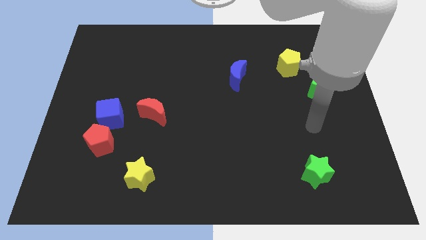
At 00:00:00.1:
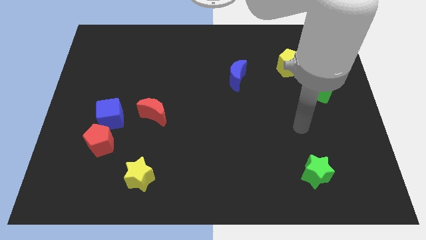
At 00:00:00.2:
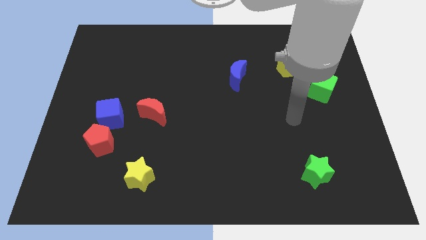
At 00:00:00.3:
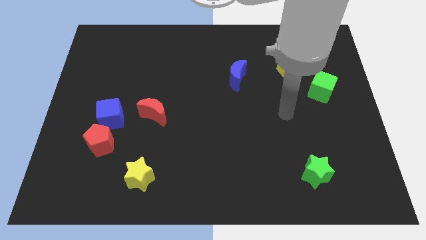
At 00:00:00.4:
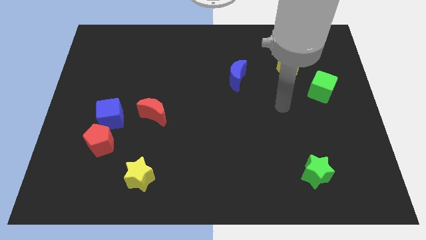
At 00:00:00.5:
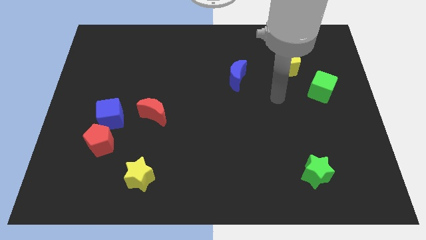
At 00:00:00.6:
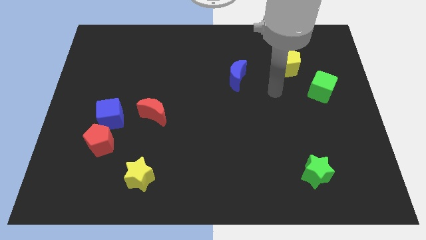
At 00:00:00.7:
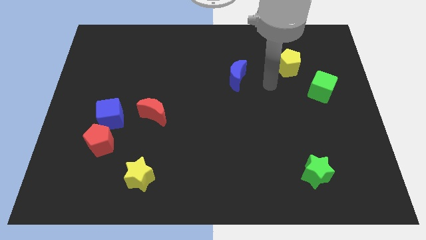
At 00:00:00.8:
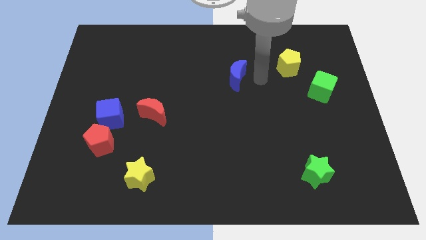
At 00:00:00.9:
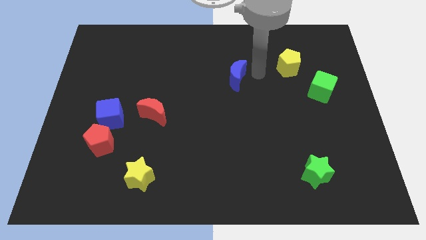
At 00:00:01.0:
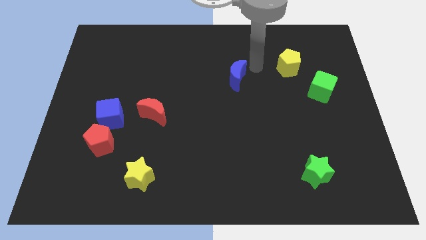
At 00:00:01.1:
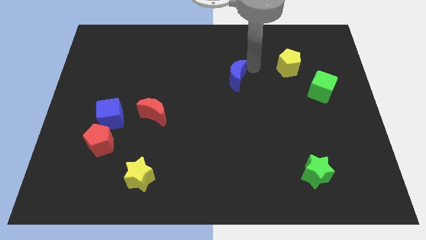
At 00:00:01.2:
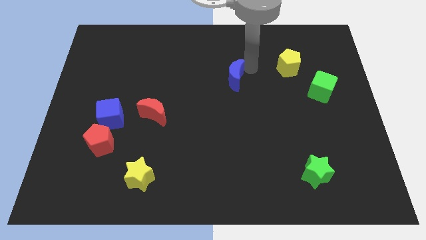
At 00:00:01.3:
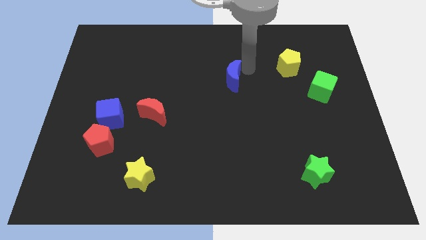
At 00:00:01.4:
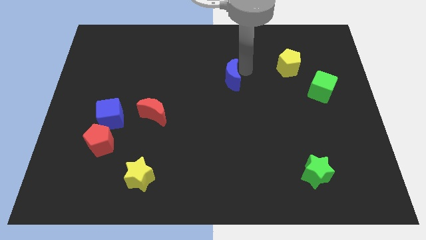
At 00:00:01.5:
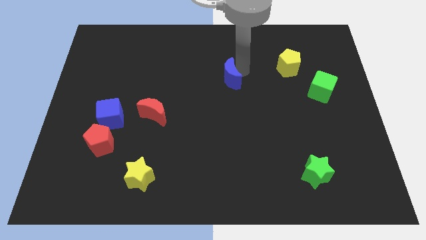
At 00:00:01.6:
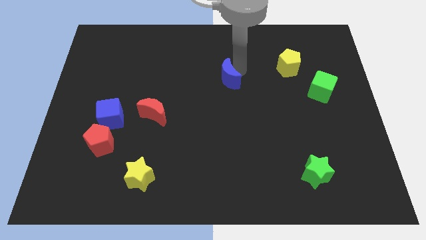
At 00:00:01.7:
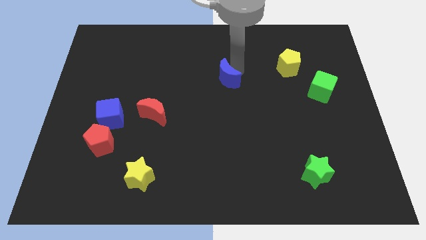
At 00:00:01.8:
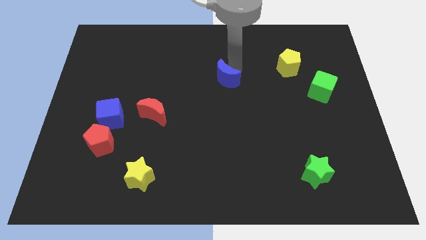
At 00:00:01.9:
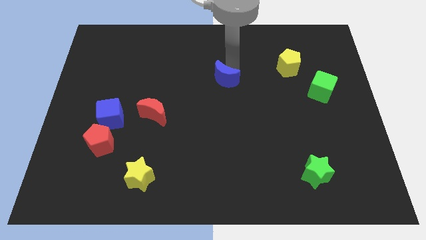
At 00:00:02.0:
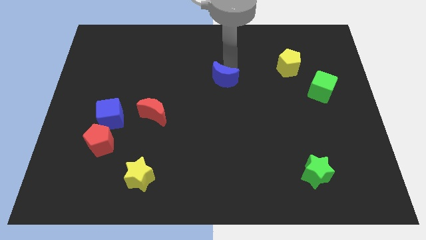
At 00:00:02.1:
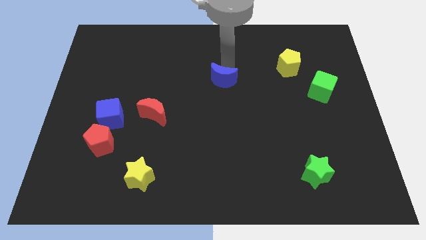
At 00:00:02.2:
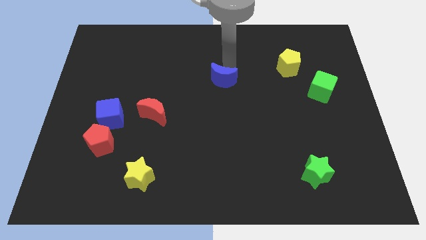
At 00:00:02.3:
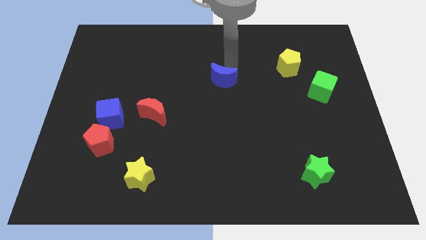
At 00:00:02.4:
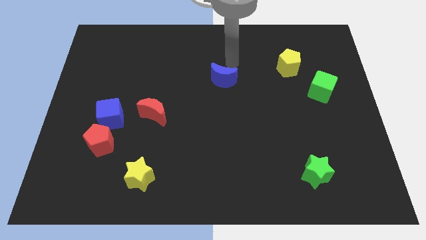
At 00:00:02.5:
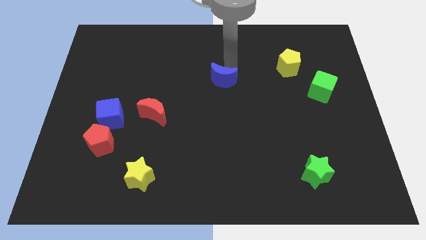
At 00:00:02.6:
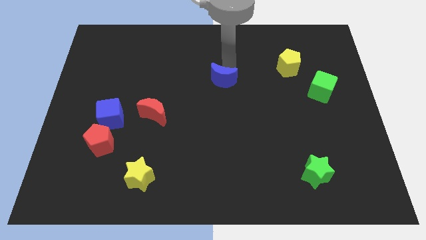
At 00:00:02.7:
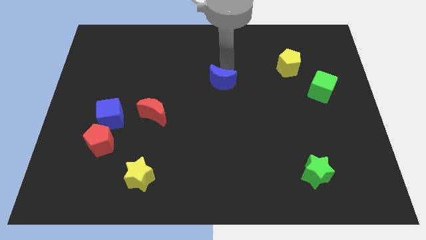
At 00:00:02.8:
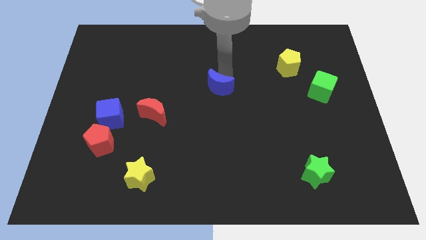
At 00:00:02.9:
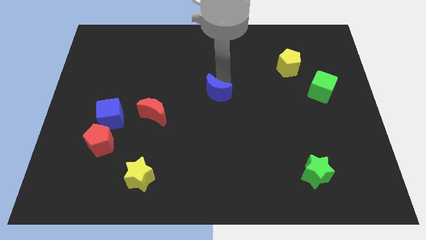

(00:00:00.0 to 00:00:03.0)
move the blue moon down and then to the left somewhat

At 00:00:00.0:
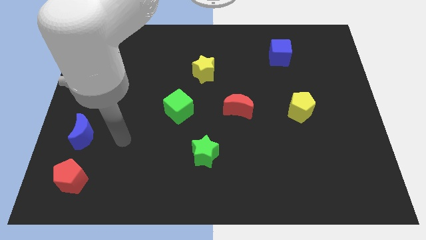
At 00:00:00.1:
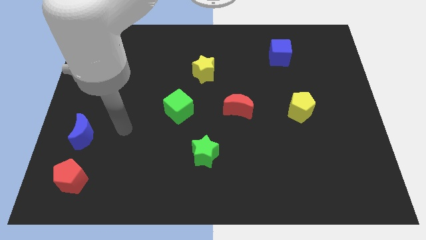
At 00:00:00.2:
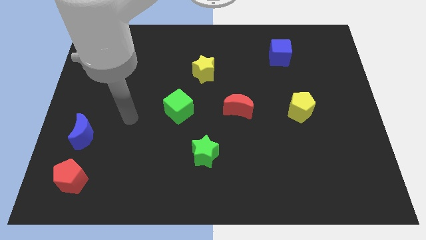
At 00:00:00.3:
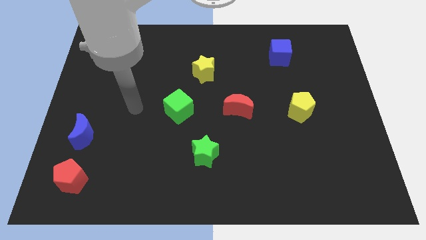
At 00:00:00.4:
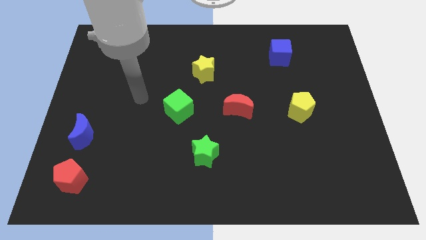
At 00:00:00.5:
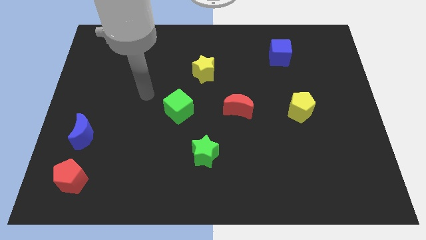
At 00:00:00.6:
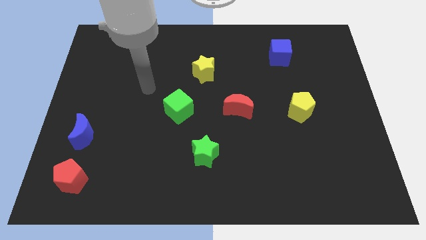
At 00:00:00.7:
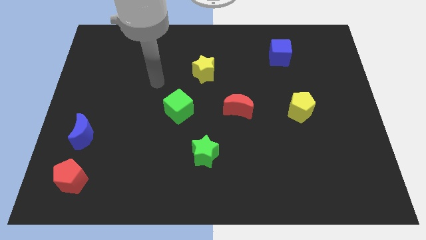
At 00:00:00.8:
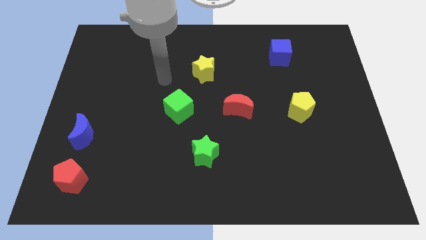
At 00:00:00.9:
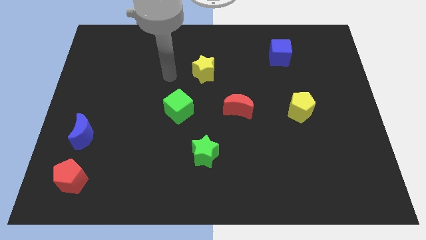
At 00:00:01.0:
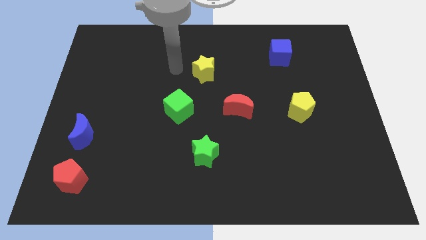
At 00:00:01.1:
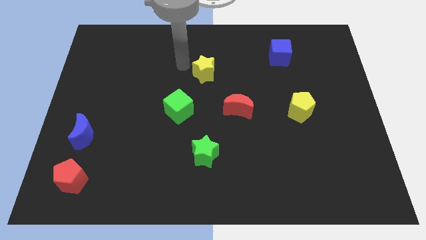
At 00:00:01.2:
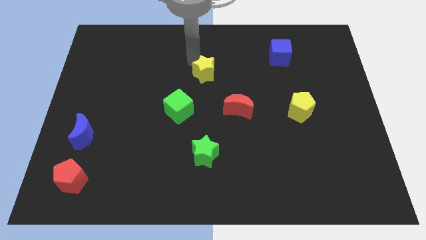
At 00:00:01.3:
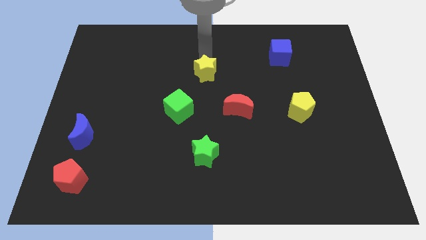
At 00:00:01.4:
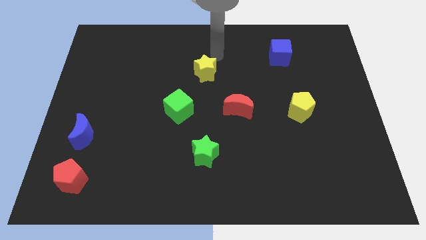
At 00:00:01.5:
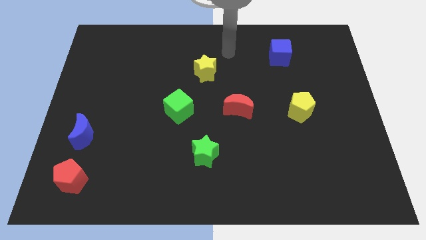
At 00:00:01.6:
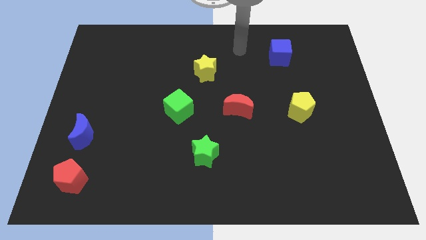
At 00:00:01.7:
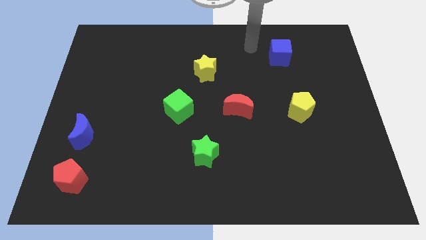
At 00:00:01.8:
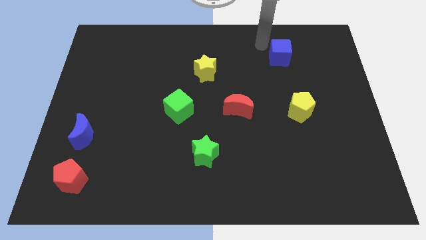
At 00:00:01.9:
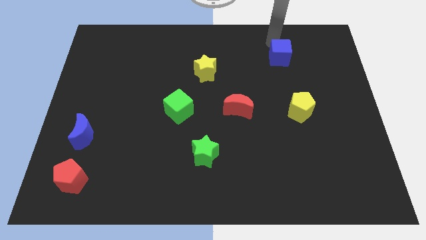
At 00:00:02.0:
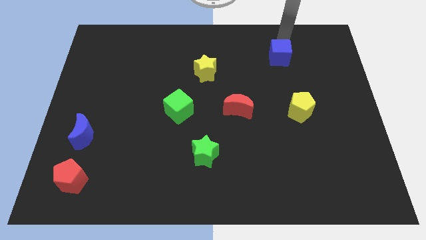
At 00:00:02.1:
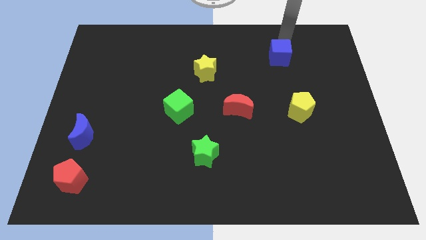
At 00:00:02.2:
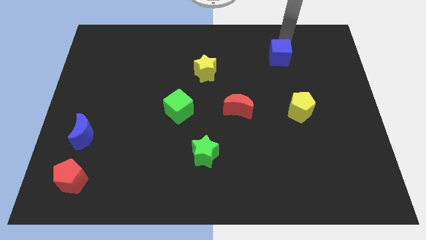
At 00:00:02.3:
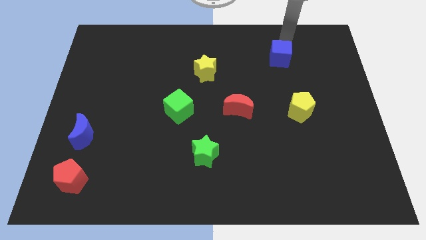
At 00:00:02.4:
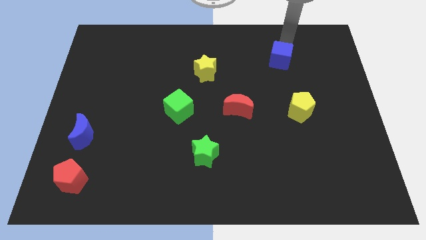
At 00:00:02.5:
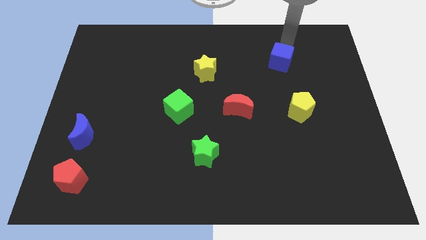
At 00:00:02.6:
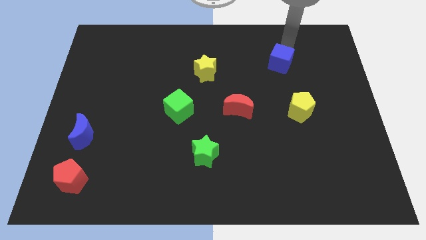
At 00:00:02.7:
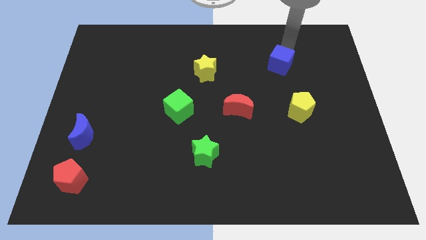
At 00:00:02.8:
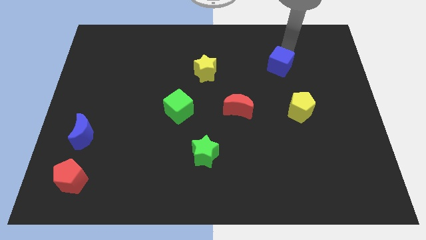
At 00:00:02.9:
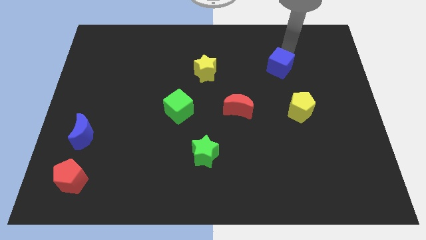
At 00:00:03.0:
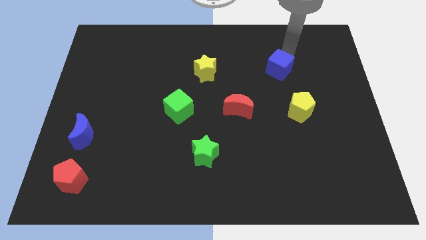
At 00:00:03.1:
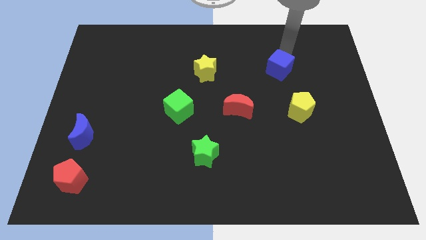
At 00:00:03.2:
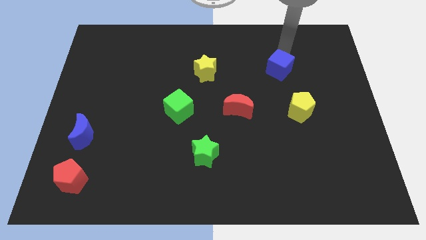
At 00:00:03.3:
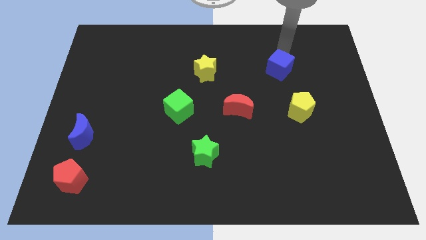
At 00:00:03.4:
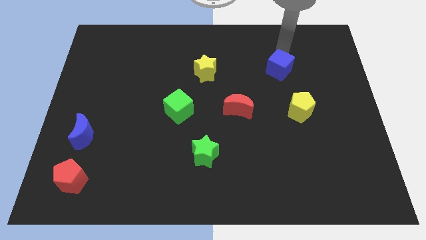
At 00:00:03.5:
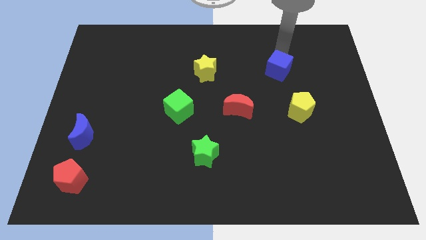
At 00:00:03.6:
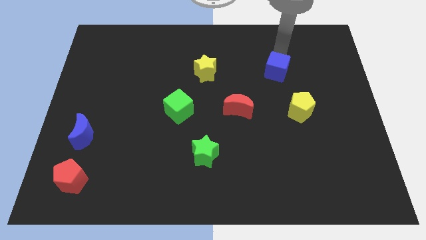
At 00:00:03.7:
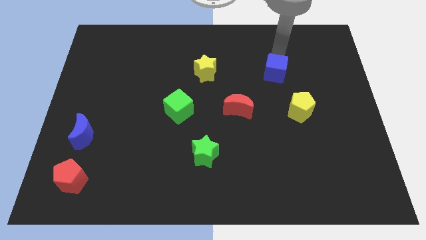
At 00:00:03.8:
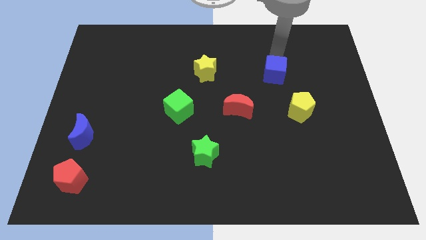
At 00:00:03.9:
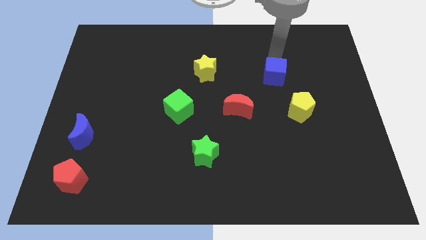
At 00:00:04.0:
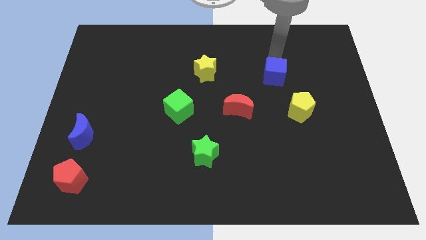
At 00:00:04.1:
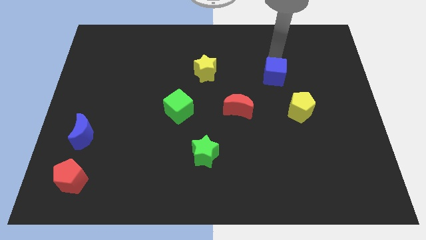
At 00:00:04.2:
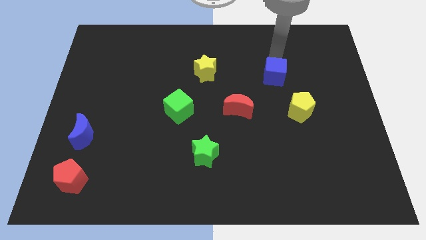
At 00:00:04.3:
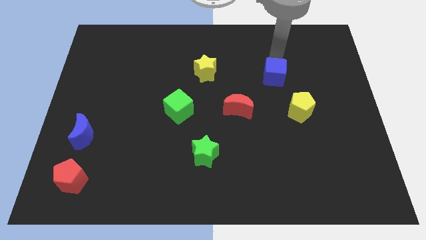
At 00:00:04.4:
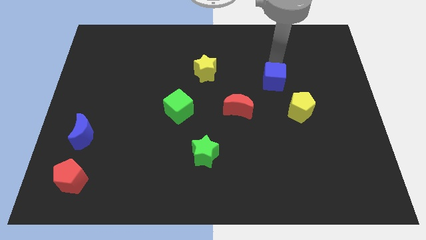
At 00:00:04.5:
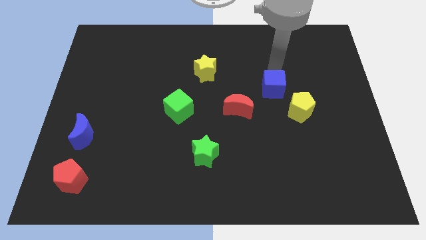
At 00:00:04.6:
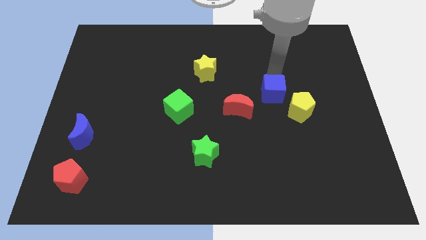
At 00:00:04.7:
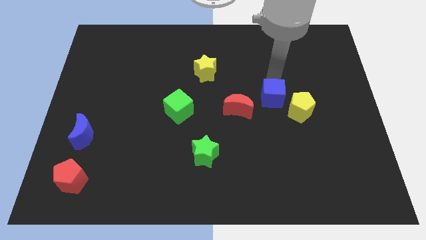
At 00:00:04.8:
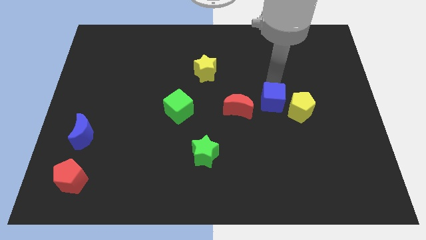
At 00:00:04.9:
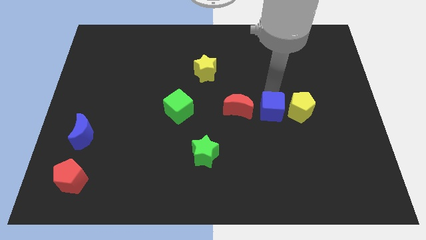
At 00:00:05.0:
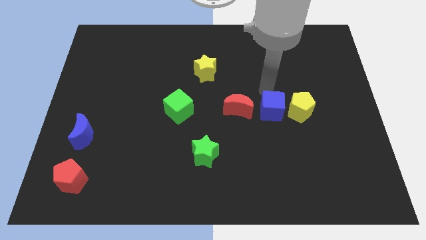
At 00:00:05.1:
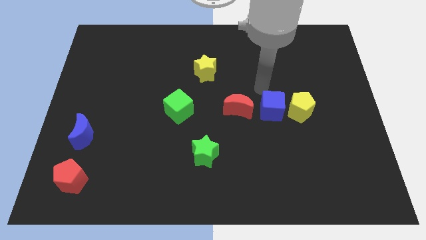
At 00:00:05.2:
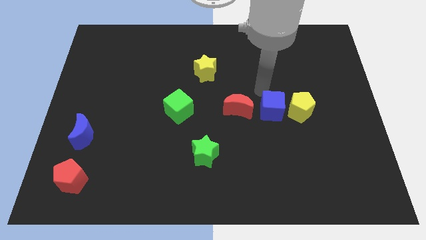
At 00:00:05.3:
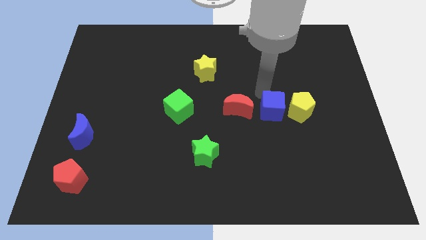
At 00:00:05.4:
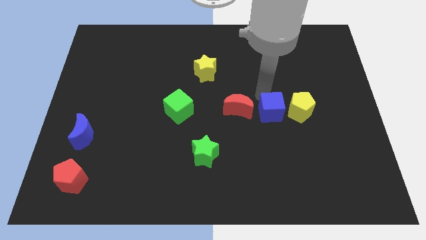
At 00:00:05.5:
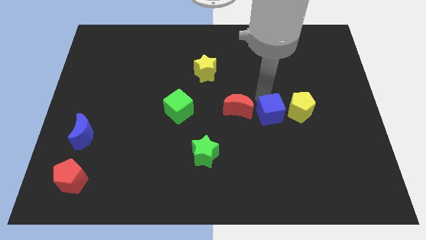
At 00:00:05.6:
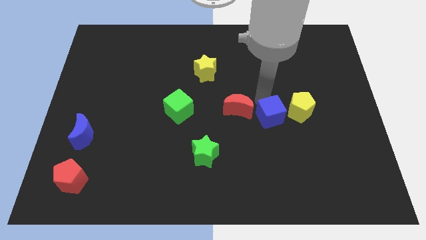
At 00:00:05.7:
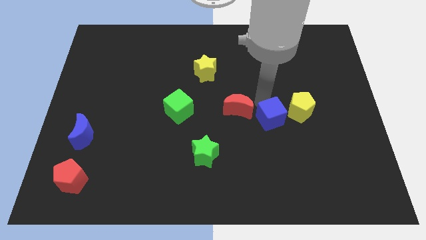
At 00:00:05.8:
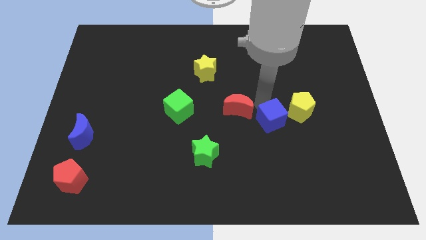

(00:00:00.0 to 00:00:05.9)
push the blue cube down
